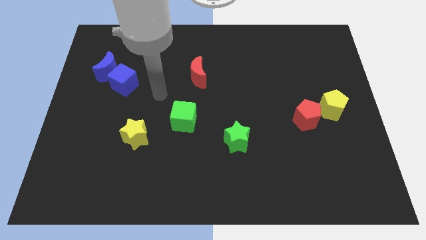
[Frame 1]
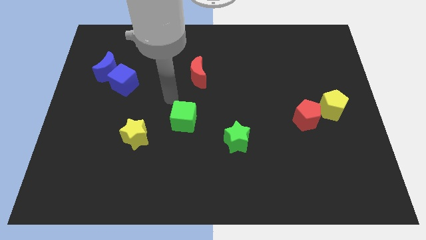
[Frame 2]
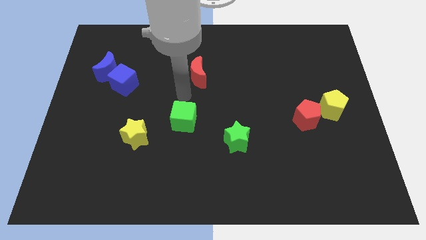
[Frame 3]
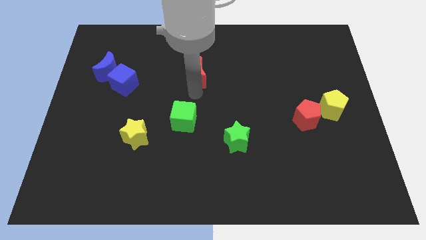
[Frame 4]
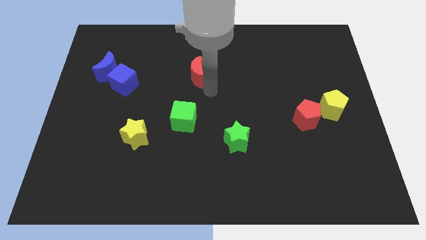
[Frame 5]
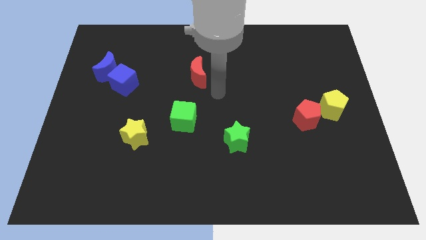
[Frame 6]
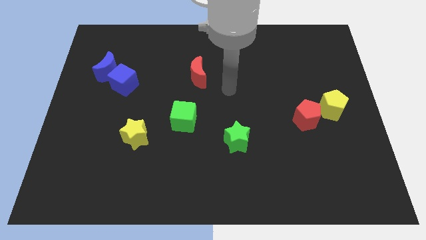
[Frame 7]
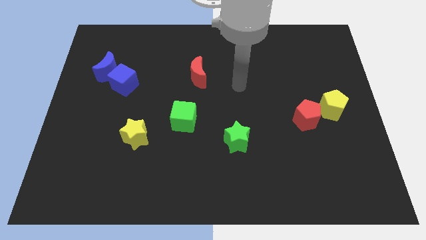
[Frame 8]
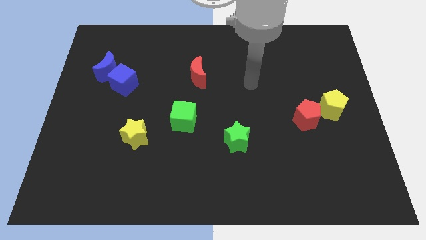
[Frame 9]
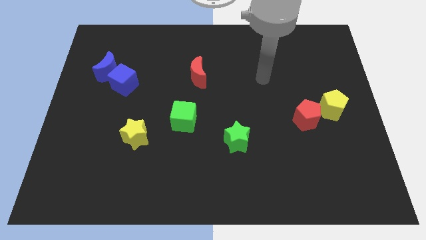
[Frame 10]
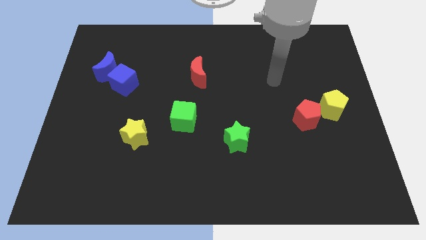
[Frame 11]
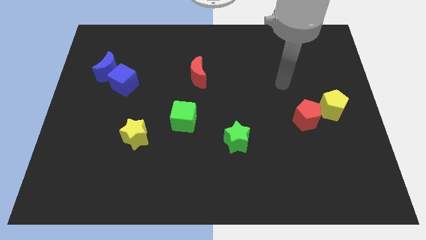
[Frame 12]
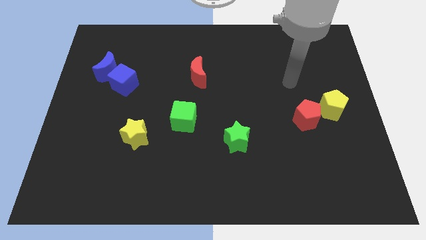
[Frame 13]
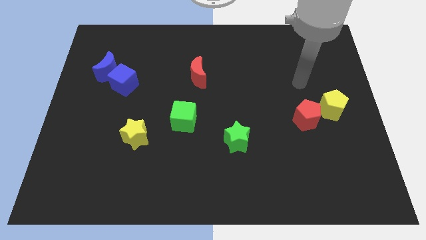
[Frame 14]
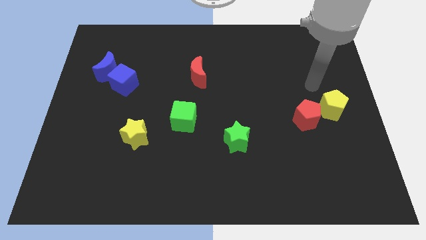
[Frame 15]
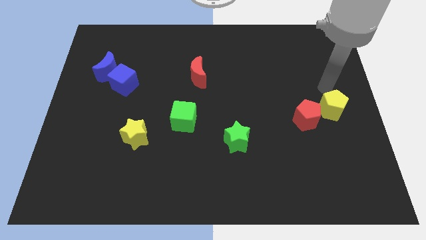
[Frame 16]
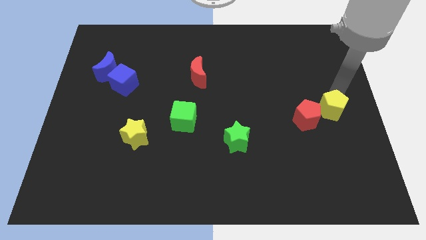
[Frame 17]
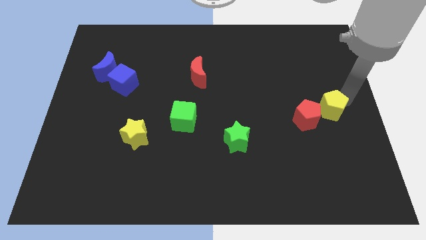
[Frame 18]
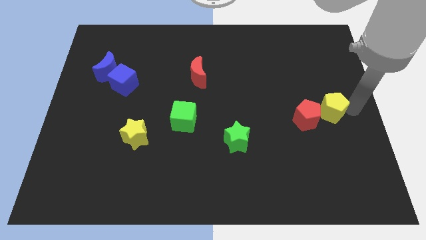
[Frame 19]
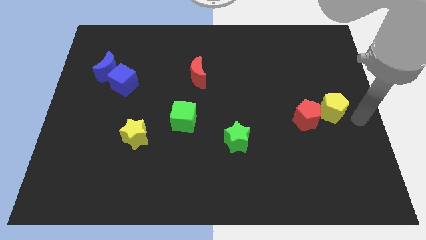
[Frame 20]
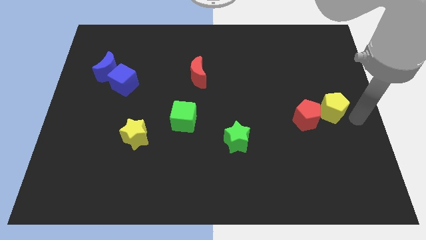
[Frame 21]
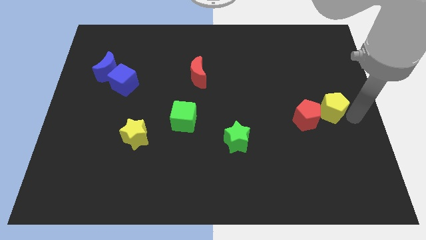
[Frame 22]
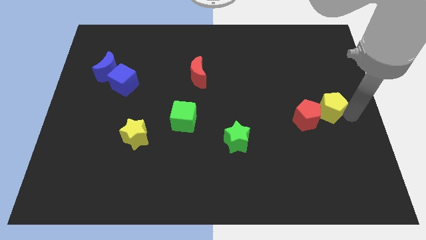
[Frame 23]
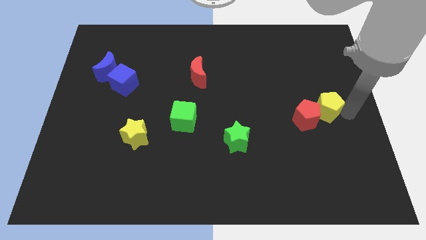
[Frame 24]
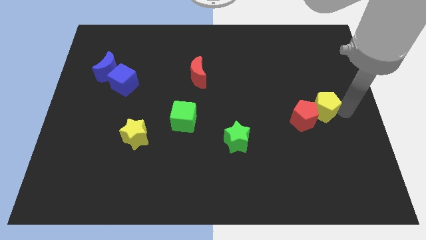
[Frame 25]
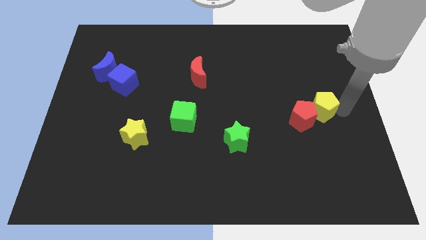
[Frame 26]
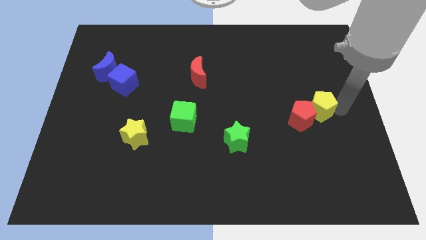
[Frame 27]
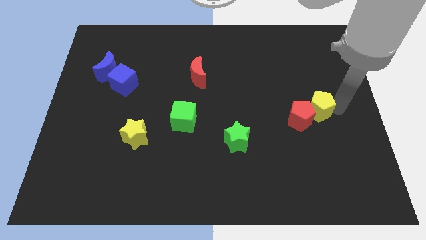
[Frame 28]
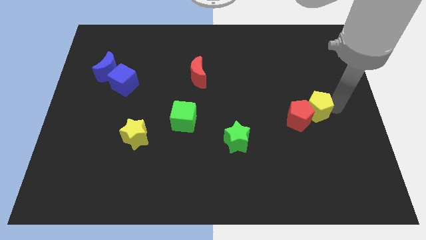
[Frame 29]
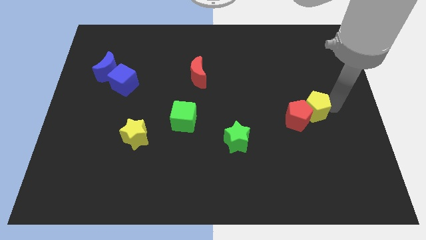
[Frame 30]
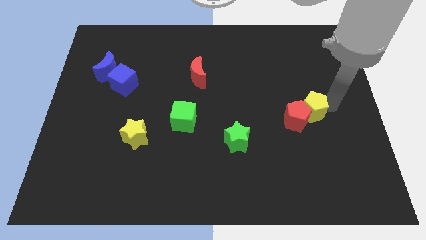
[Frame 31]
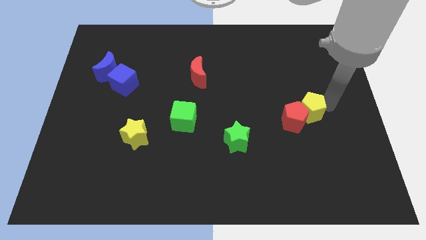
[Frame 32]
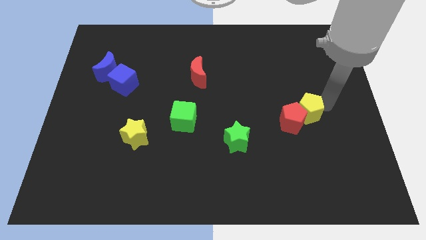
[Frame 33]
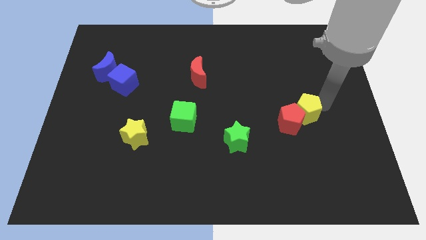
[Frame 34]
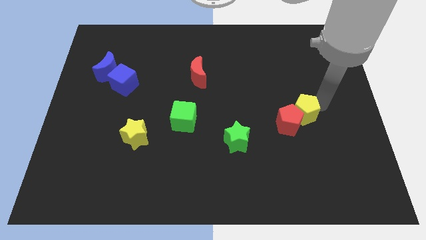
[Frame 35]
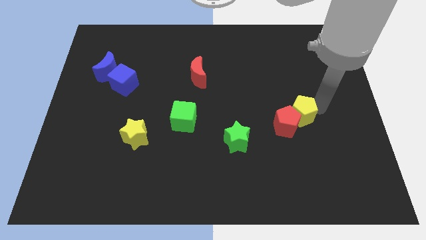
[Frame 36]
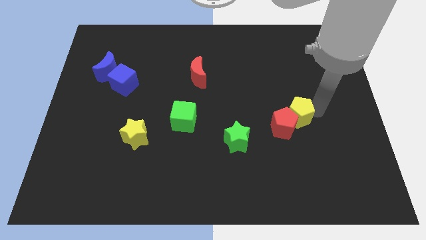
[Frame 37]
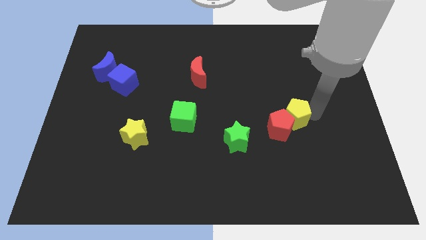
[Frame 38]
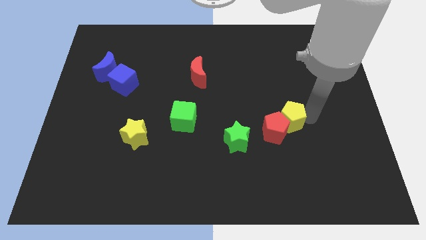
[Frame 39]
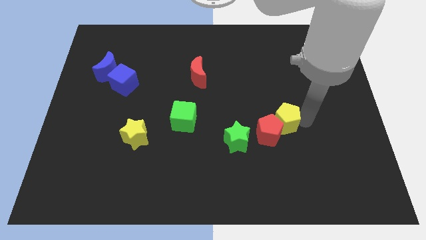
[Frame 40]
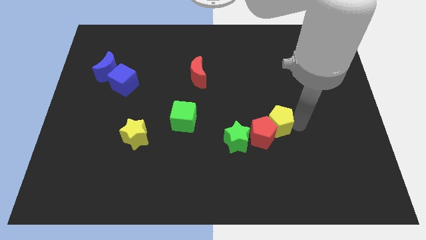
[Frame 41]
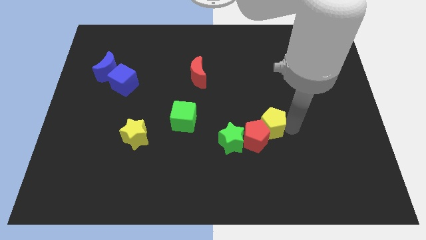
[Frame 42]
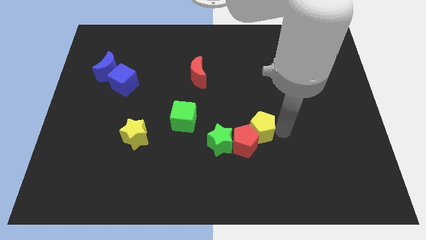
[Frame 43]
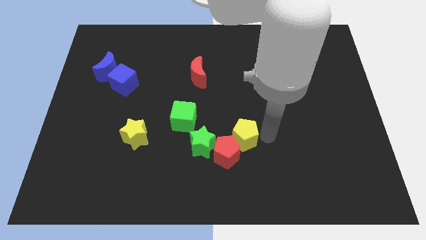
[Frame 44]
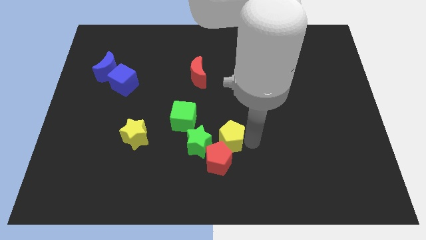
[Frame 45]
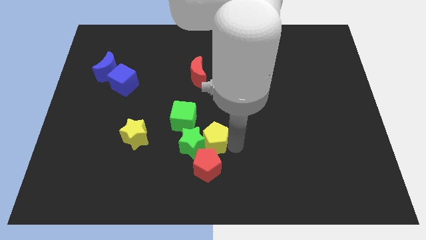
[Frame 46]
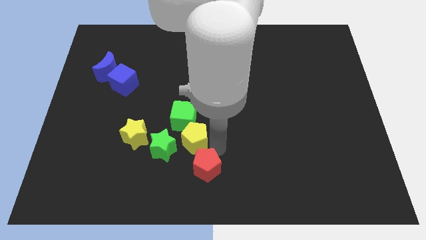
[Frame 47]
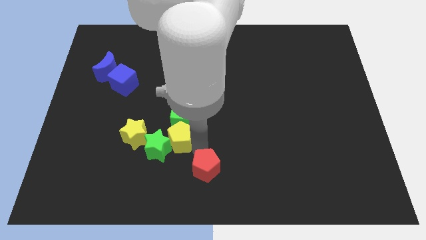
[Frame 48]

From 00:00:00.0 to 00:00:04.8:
move the yellow pentagon next to the green cube

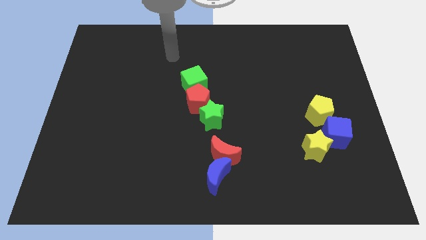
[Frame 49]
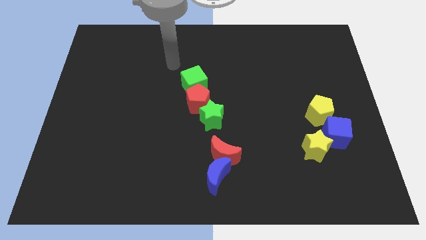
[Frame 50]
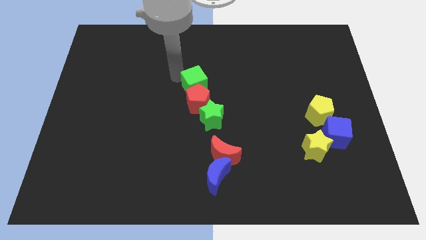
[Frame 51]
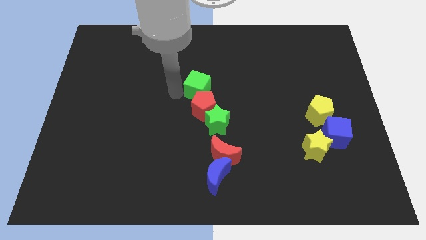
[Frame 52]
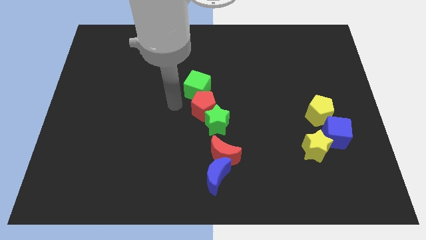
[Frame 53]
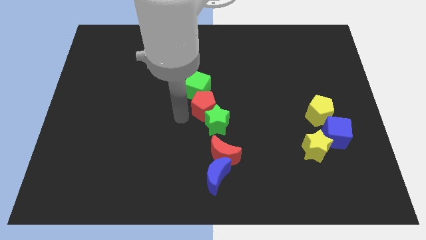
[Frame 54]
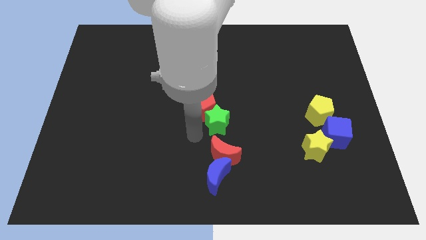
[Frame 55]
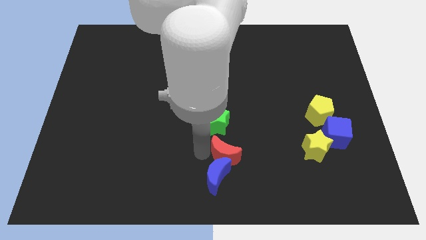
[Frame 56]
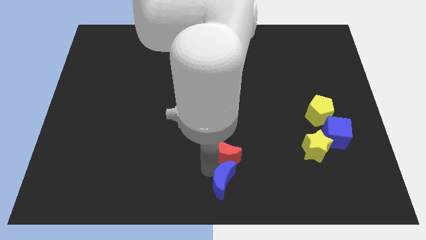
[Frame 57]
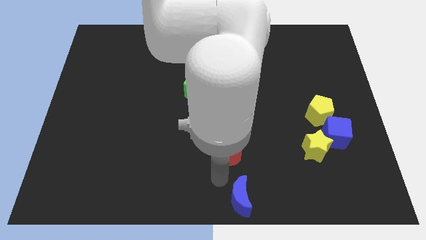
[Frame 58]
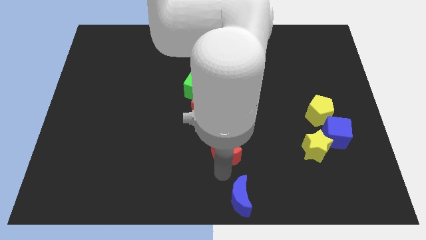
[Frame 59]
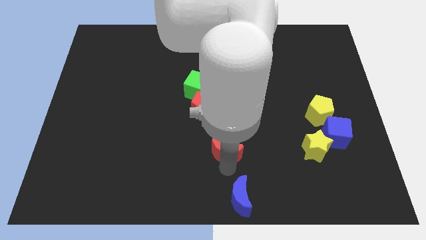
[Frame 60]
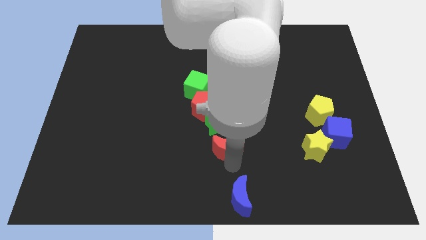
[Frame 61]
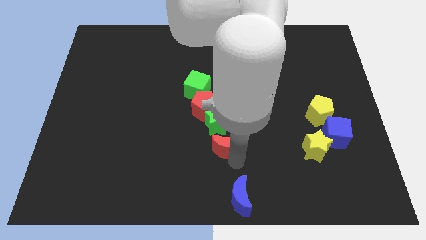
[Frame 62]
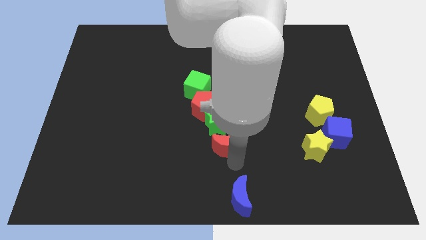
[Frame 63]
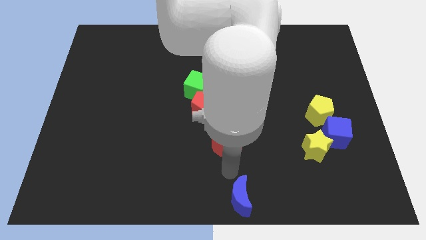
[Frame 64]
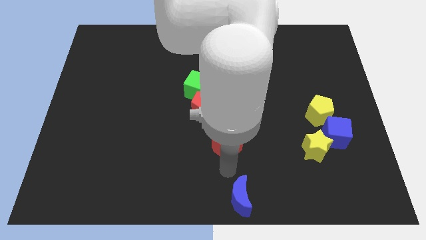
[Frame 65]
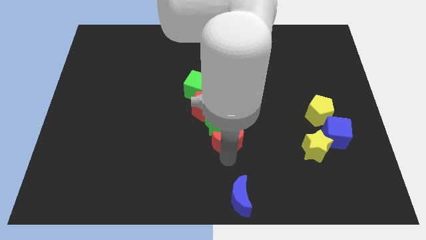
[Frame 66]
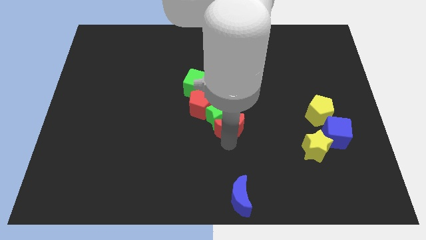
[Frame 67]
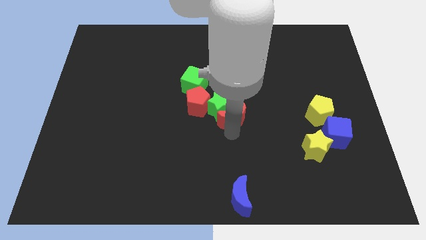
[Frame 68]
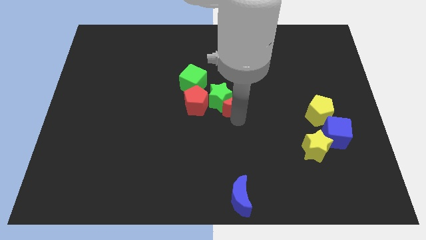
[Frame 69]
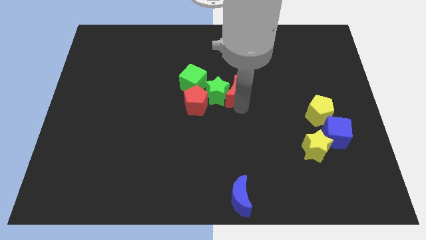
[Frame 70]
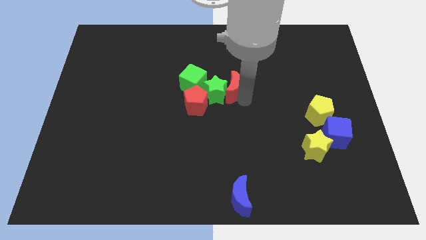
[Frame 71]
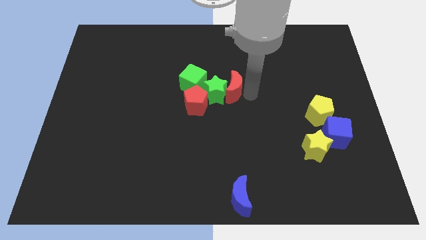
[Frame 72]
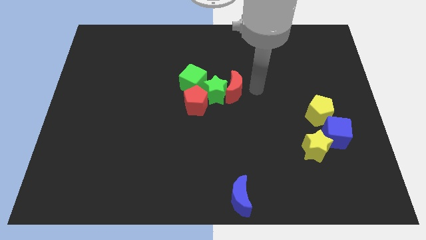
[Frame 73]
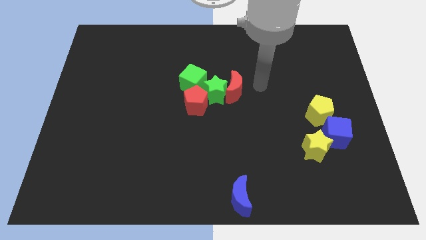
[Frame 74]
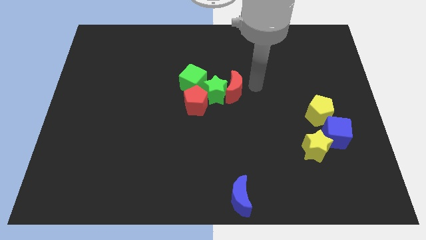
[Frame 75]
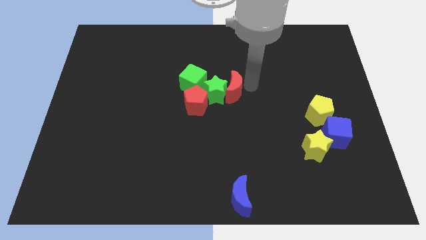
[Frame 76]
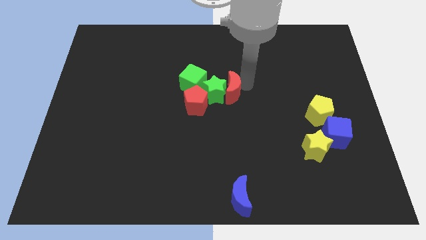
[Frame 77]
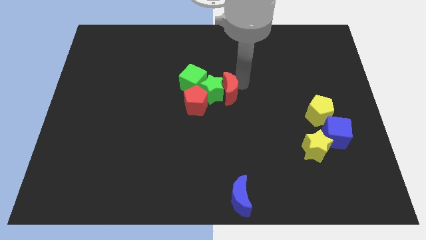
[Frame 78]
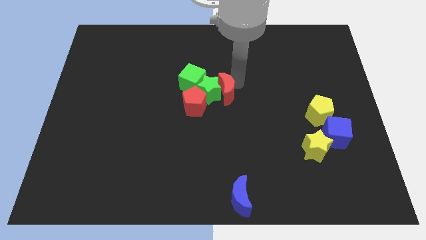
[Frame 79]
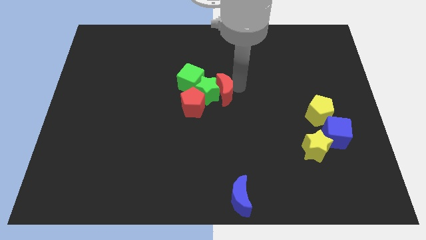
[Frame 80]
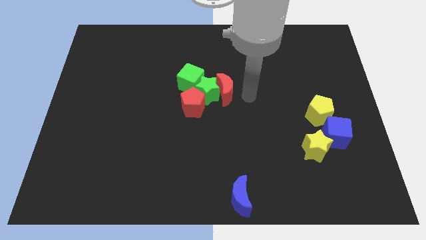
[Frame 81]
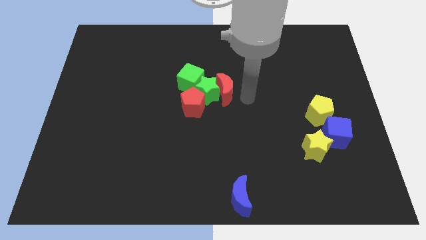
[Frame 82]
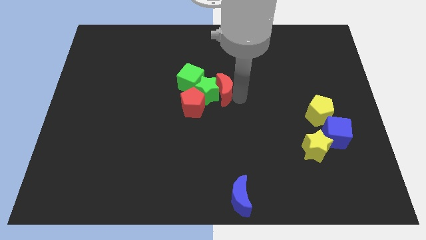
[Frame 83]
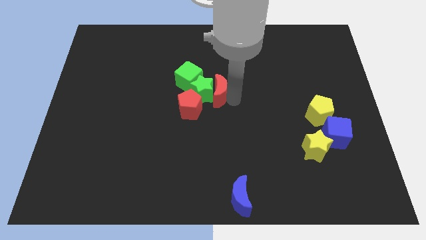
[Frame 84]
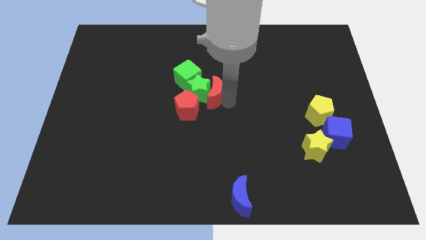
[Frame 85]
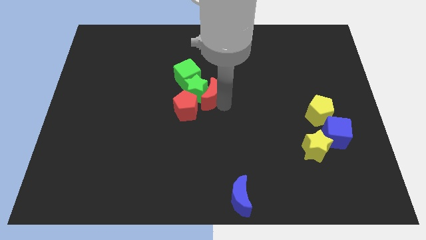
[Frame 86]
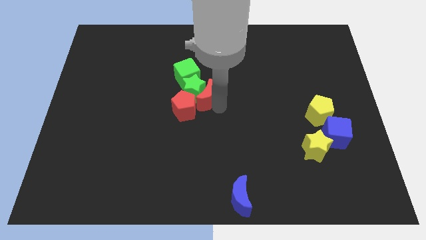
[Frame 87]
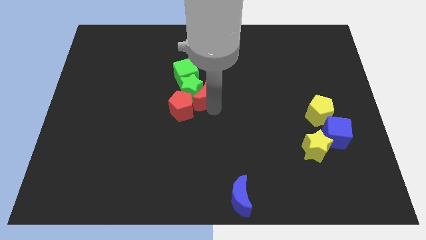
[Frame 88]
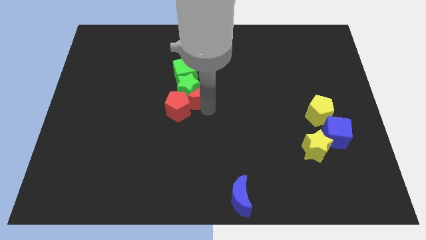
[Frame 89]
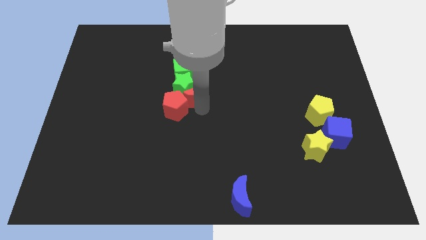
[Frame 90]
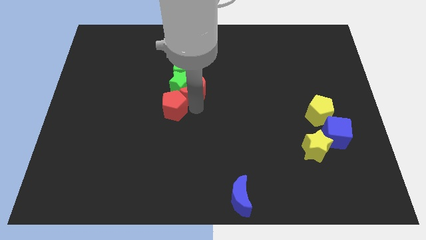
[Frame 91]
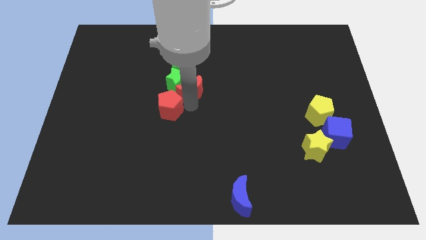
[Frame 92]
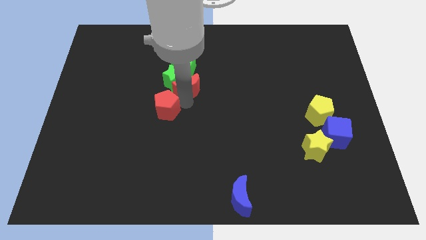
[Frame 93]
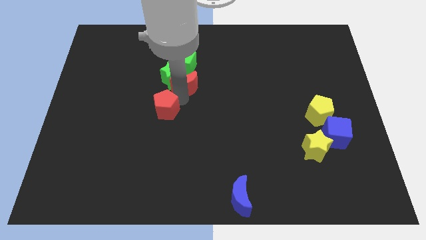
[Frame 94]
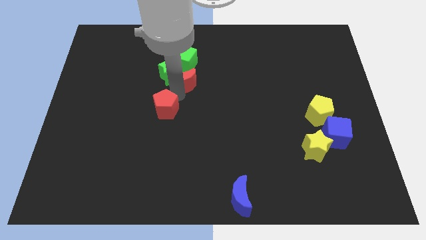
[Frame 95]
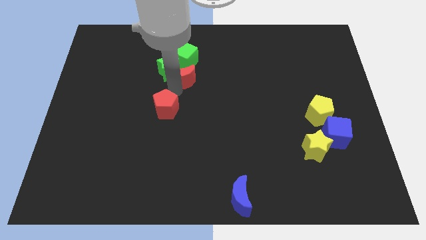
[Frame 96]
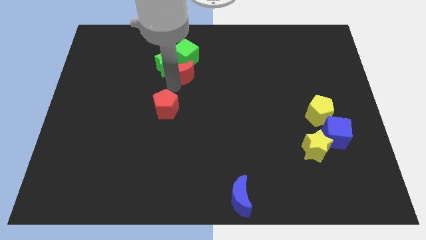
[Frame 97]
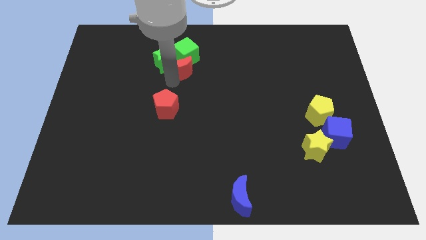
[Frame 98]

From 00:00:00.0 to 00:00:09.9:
put the red moon next to the green cube
